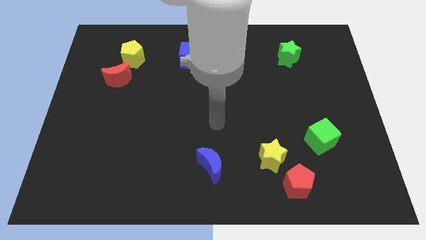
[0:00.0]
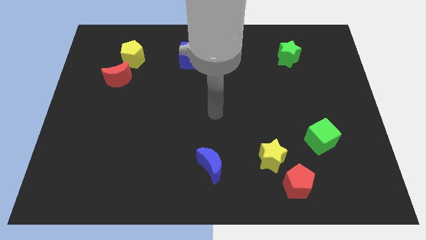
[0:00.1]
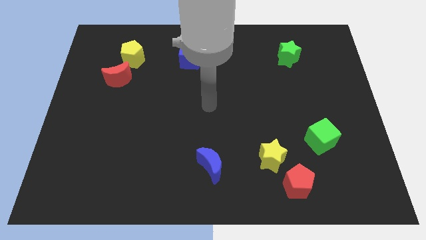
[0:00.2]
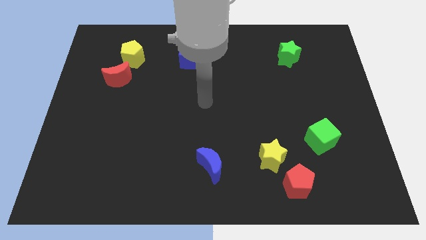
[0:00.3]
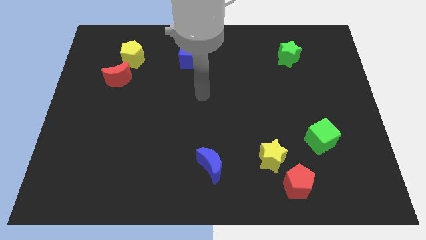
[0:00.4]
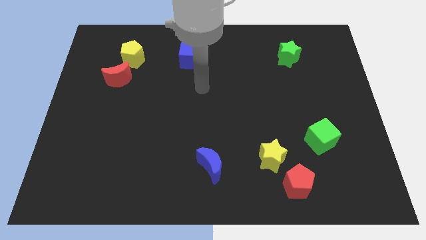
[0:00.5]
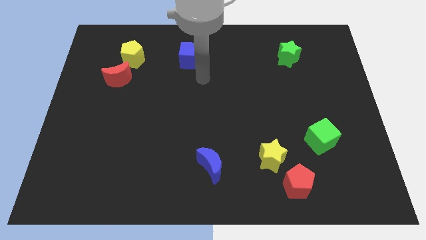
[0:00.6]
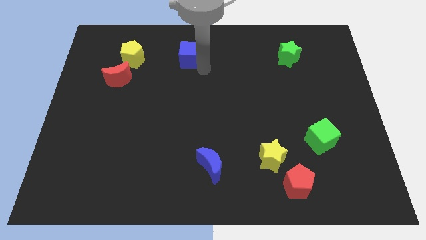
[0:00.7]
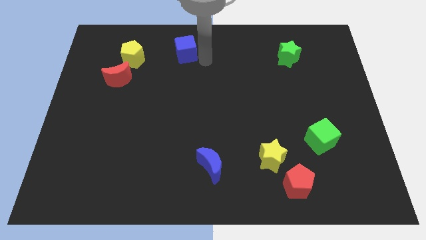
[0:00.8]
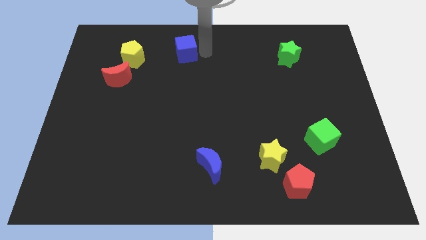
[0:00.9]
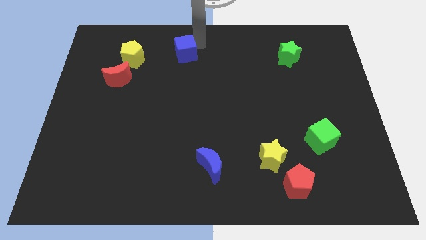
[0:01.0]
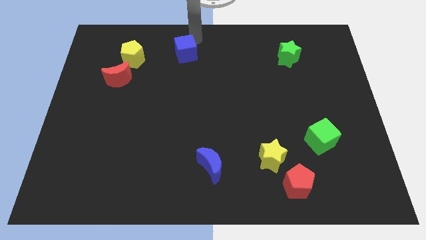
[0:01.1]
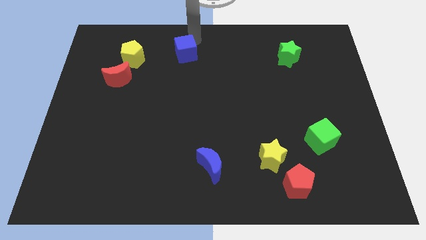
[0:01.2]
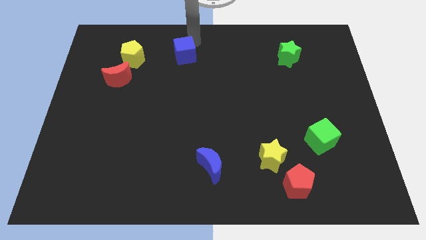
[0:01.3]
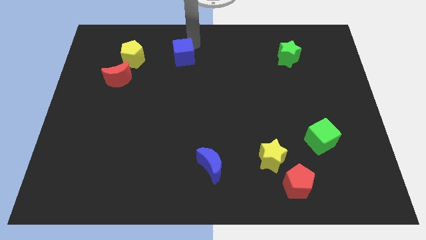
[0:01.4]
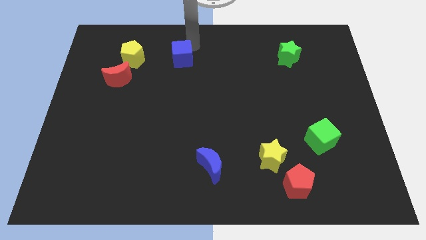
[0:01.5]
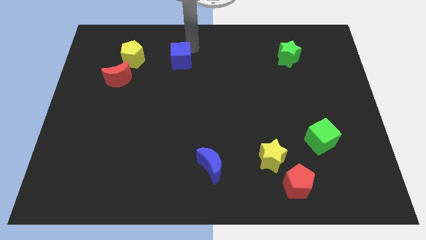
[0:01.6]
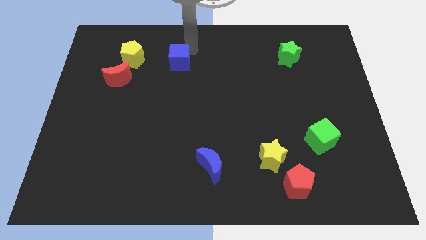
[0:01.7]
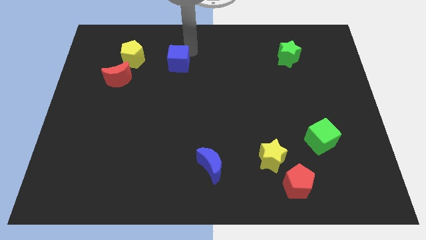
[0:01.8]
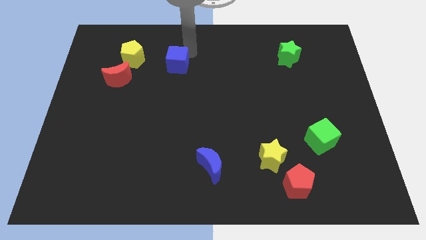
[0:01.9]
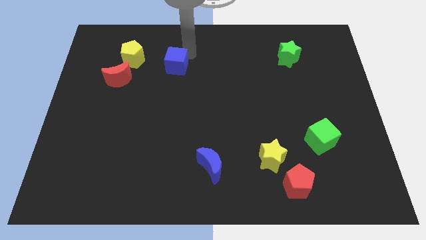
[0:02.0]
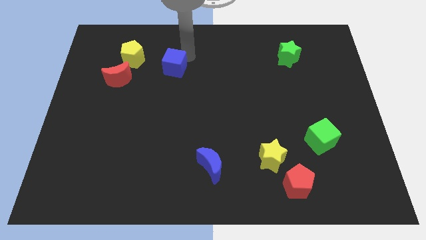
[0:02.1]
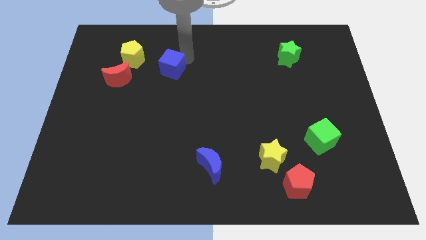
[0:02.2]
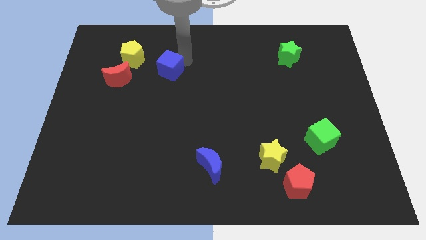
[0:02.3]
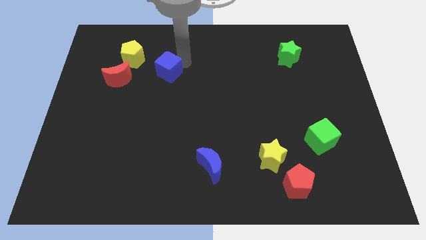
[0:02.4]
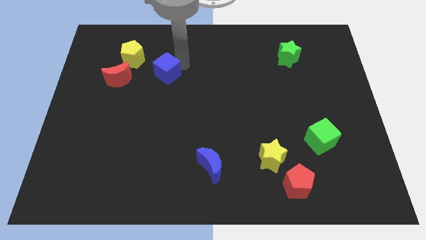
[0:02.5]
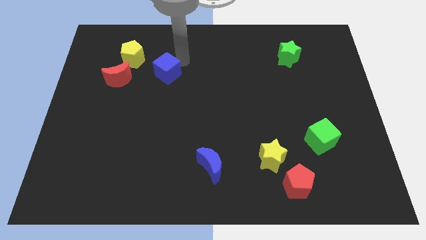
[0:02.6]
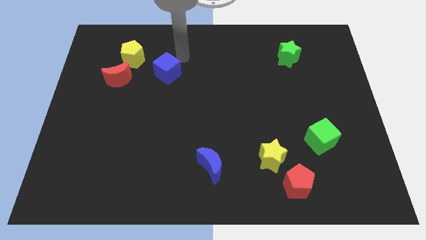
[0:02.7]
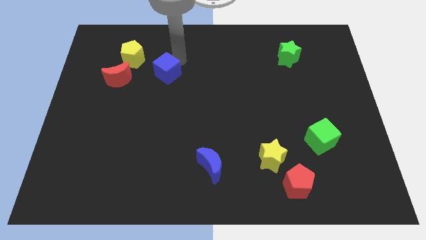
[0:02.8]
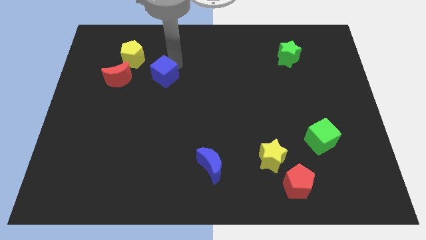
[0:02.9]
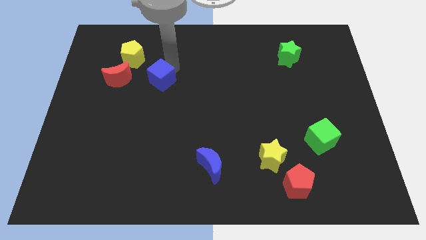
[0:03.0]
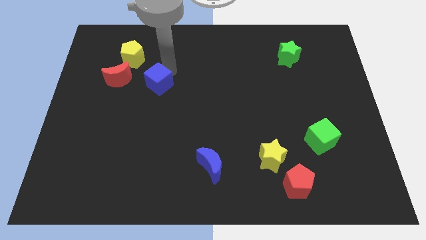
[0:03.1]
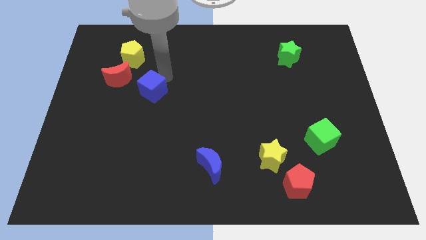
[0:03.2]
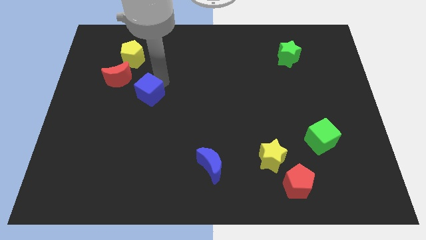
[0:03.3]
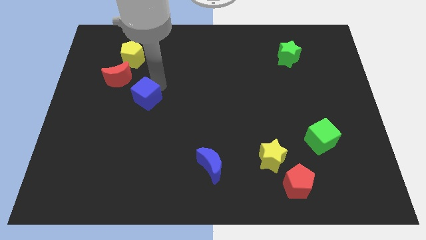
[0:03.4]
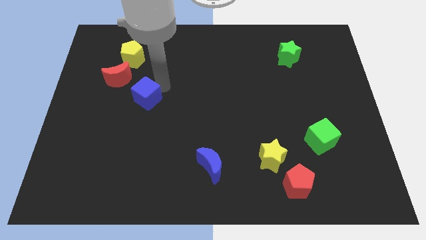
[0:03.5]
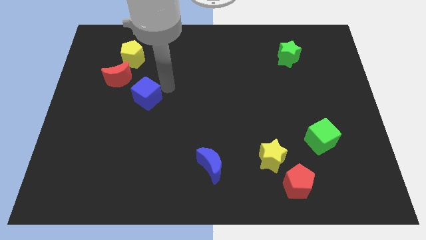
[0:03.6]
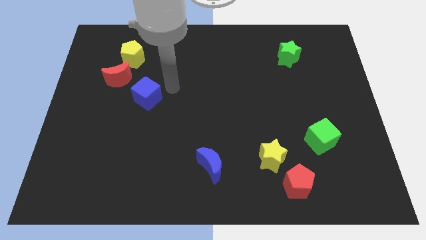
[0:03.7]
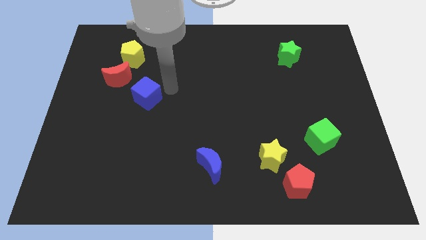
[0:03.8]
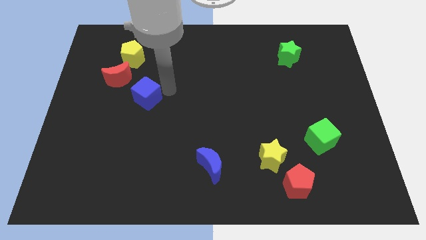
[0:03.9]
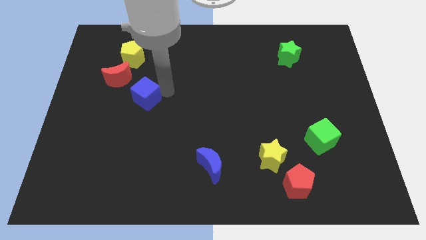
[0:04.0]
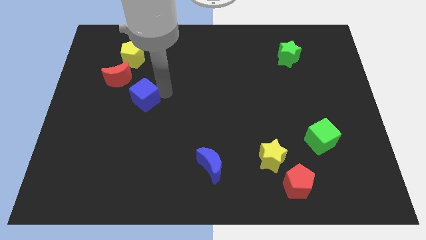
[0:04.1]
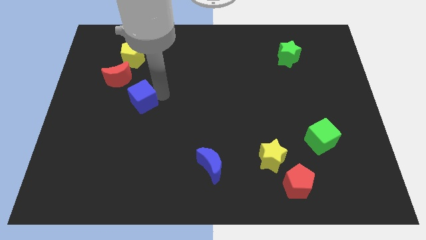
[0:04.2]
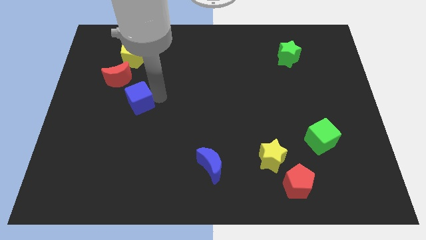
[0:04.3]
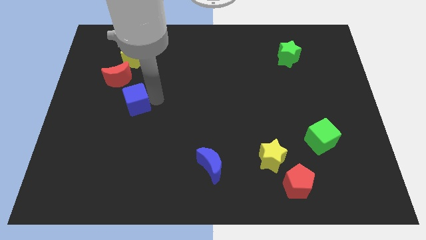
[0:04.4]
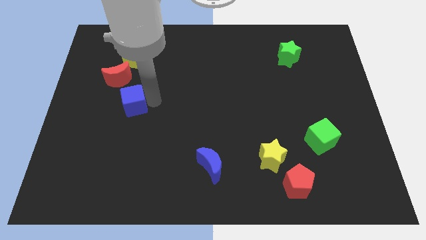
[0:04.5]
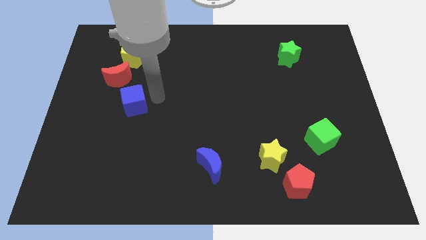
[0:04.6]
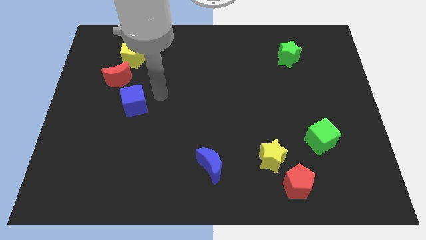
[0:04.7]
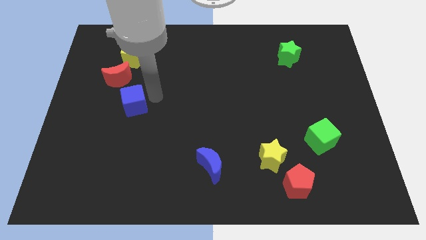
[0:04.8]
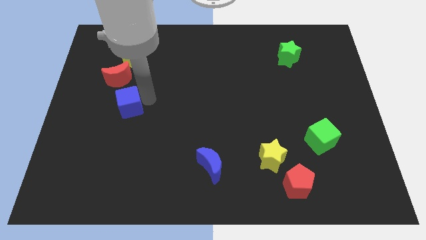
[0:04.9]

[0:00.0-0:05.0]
push the blue cube down and left

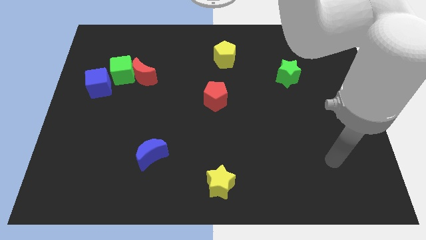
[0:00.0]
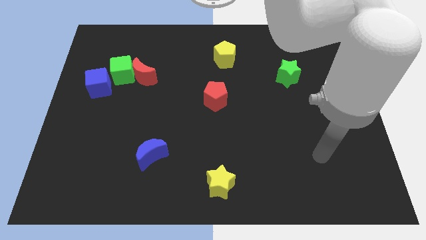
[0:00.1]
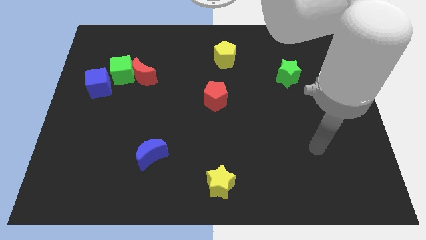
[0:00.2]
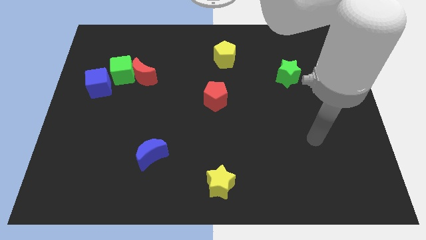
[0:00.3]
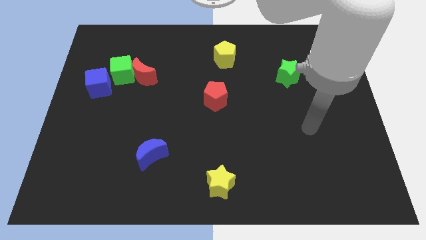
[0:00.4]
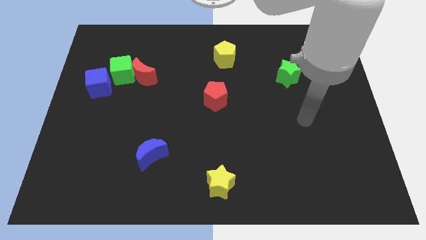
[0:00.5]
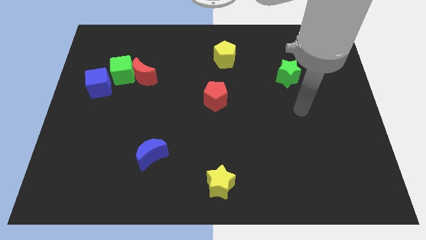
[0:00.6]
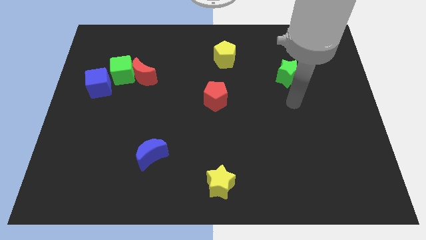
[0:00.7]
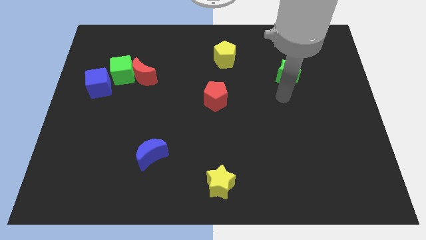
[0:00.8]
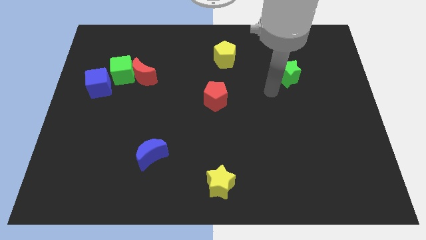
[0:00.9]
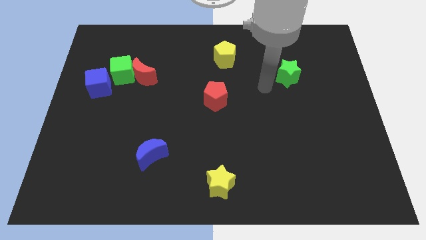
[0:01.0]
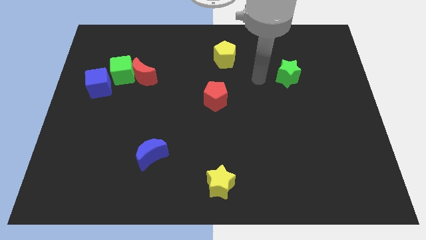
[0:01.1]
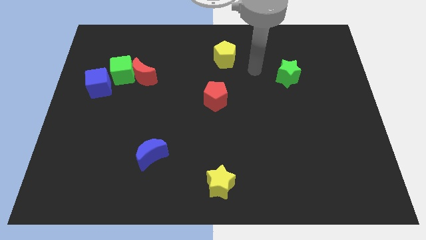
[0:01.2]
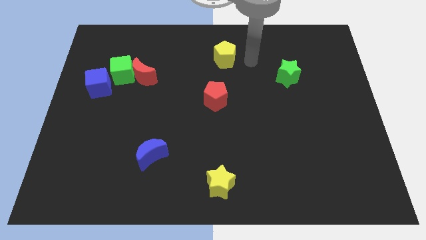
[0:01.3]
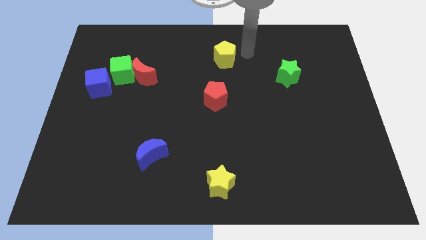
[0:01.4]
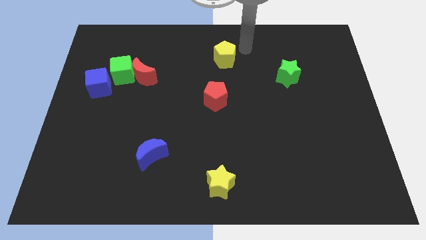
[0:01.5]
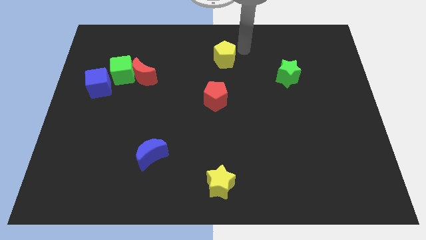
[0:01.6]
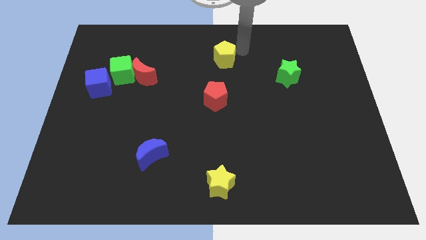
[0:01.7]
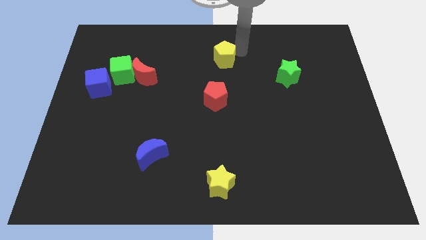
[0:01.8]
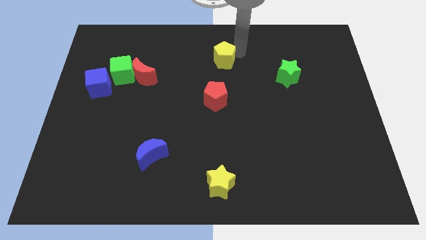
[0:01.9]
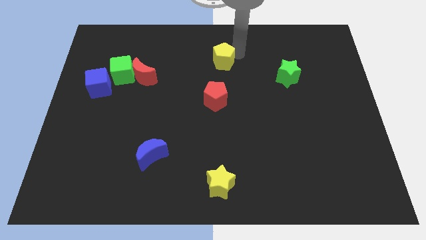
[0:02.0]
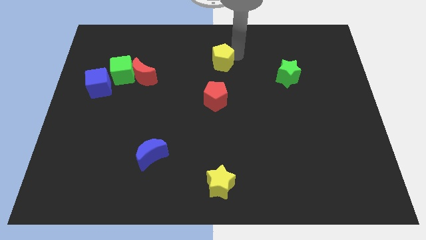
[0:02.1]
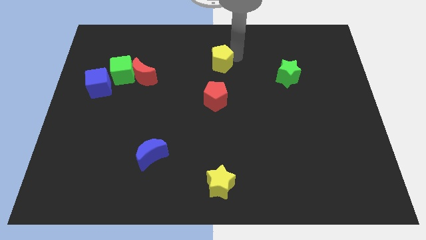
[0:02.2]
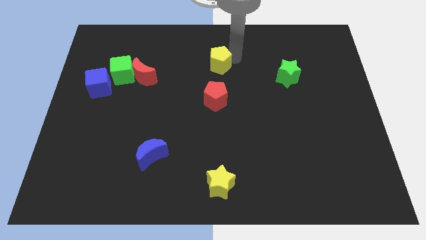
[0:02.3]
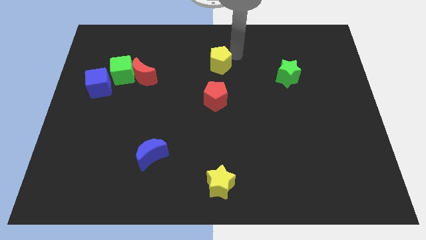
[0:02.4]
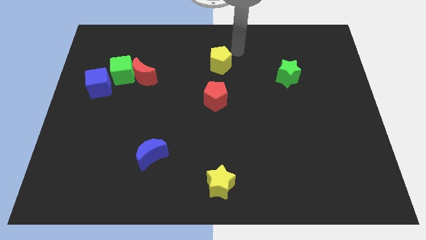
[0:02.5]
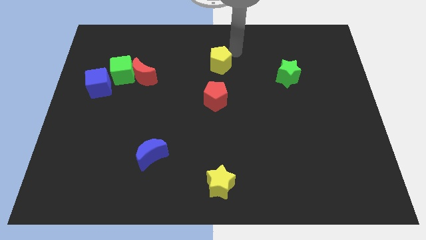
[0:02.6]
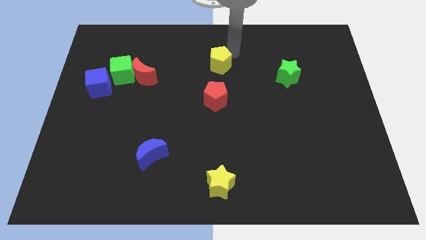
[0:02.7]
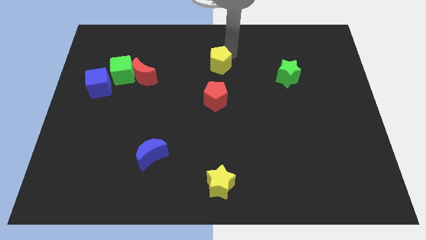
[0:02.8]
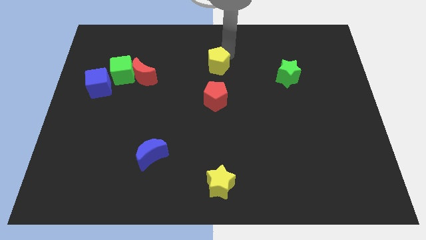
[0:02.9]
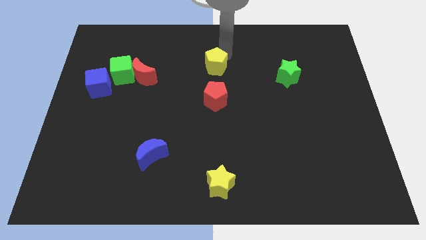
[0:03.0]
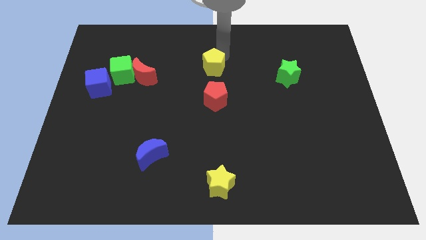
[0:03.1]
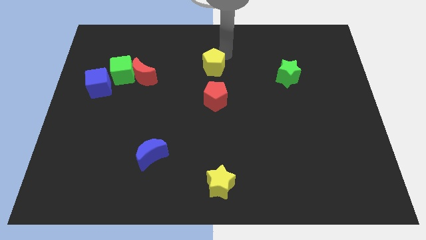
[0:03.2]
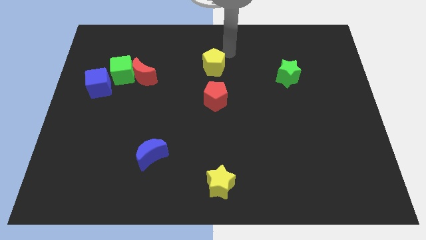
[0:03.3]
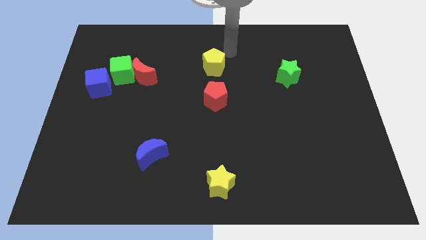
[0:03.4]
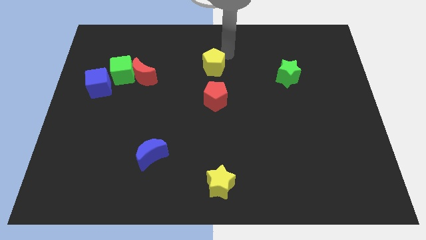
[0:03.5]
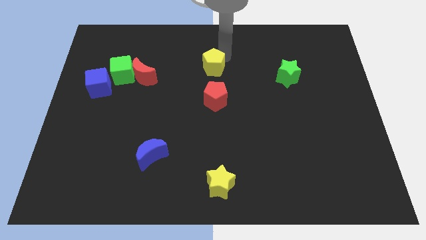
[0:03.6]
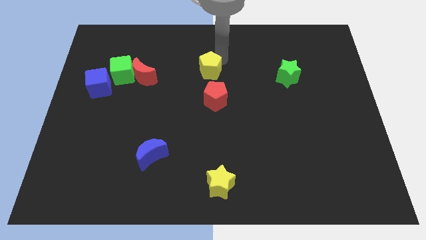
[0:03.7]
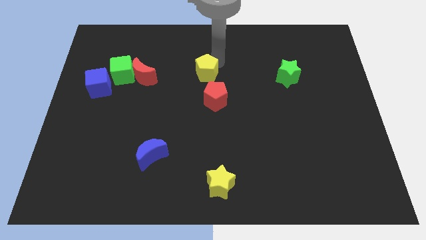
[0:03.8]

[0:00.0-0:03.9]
slightly move the yellow pentagon diagonally down and to the left
